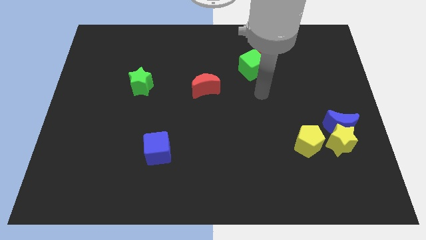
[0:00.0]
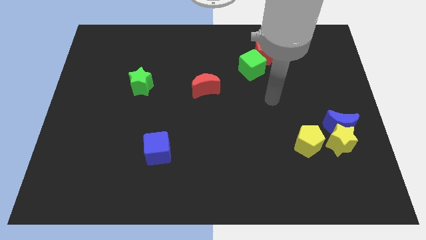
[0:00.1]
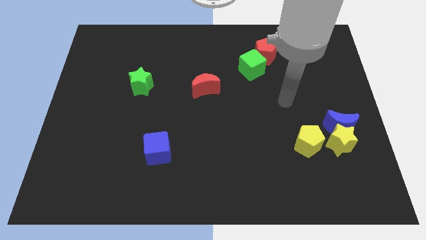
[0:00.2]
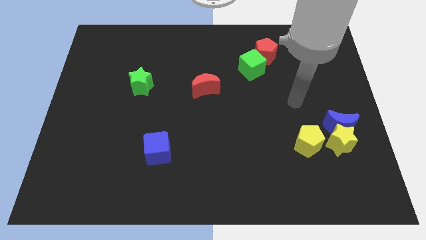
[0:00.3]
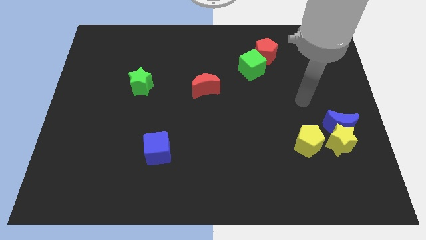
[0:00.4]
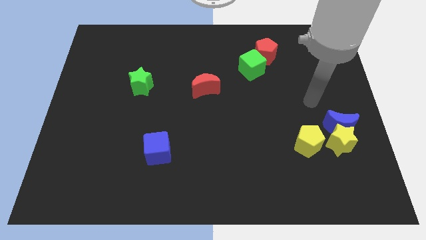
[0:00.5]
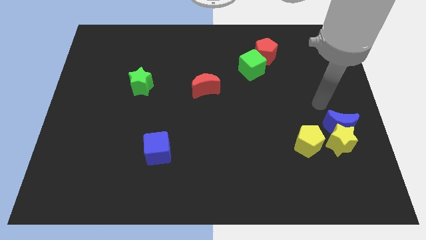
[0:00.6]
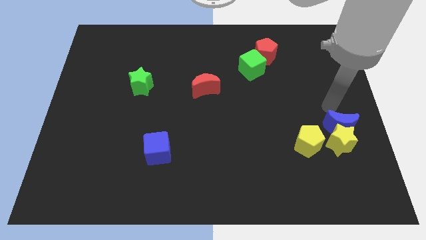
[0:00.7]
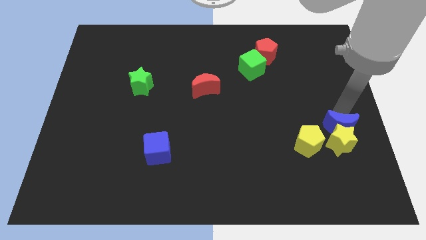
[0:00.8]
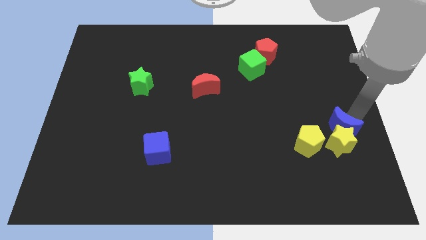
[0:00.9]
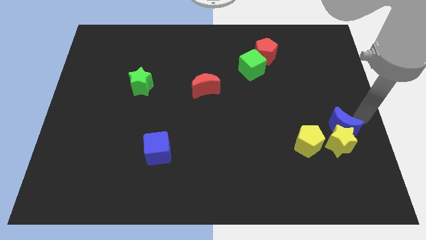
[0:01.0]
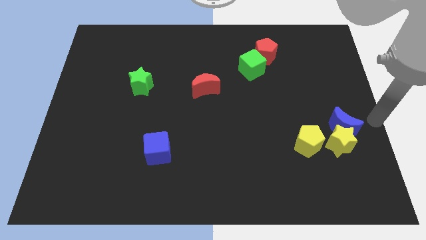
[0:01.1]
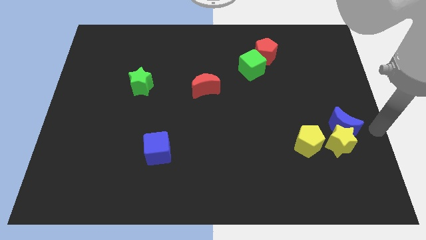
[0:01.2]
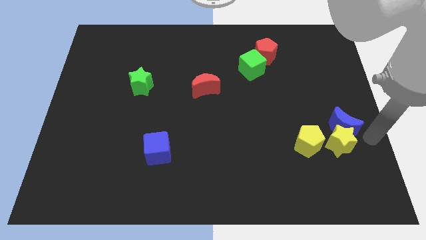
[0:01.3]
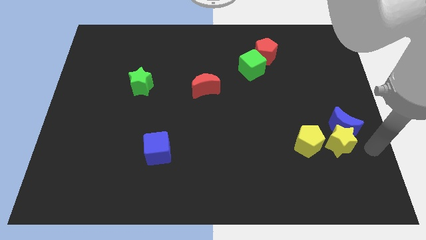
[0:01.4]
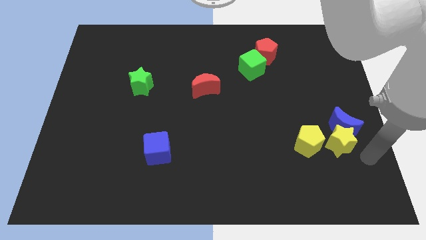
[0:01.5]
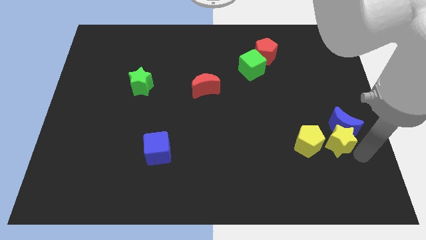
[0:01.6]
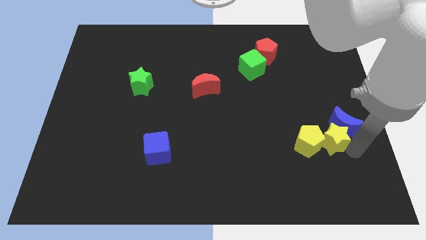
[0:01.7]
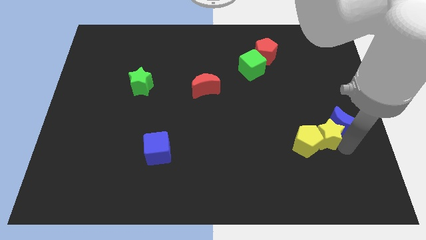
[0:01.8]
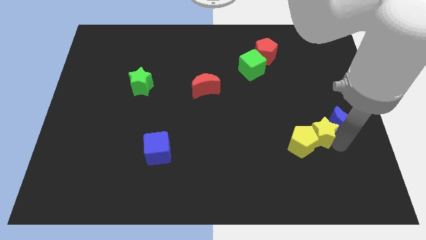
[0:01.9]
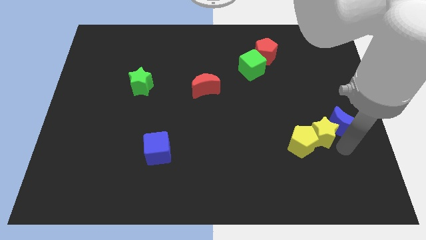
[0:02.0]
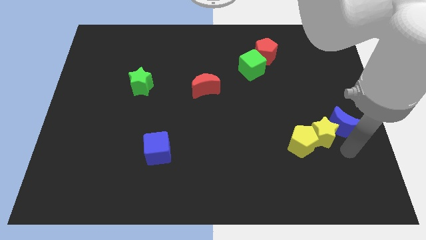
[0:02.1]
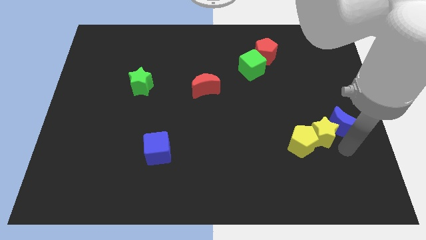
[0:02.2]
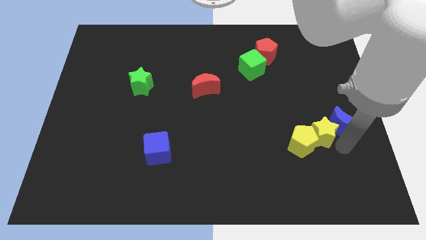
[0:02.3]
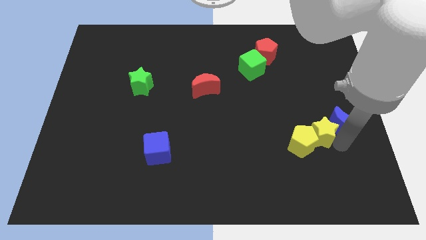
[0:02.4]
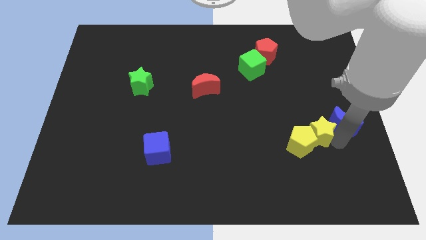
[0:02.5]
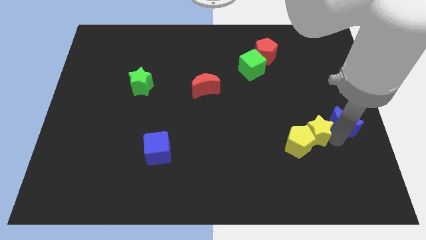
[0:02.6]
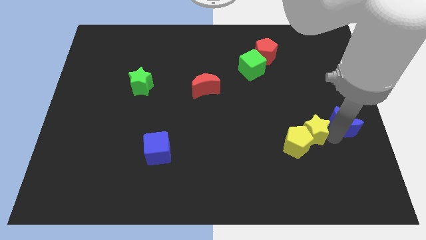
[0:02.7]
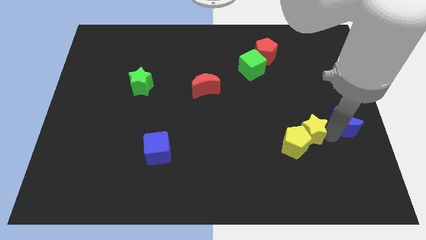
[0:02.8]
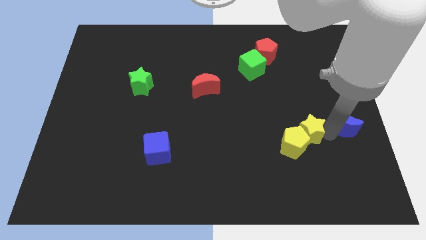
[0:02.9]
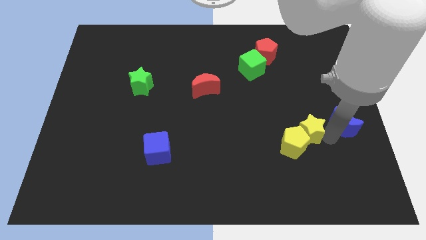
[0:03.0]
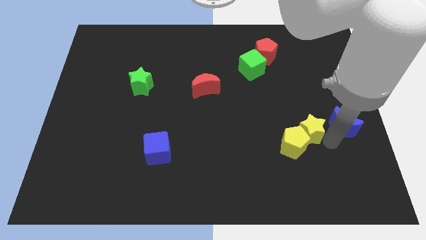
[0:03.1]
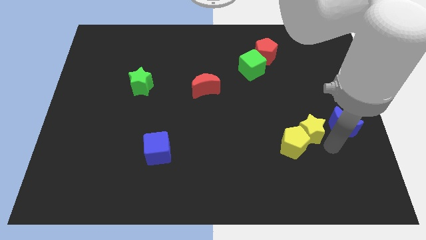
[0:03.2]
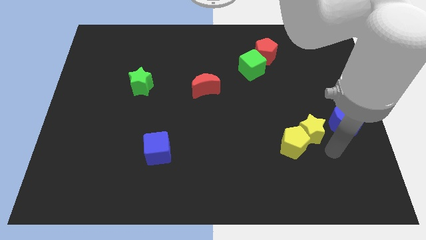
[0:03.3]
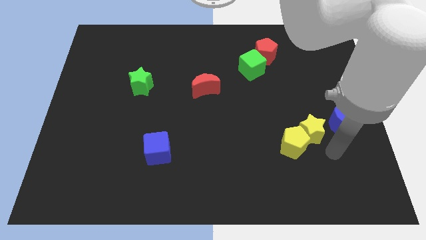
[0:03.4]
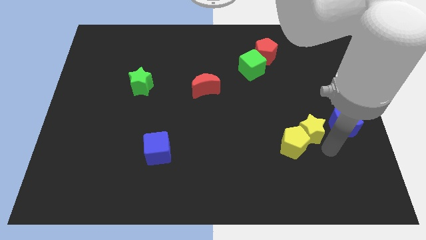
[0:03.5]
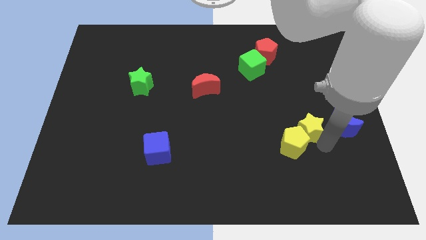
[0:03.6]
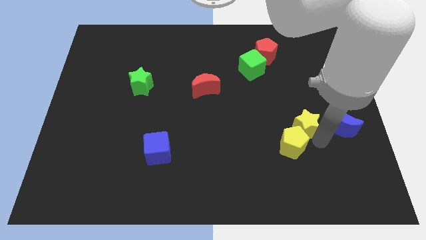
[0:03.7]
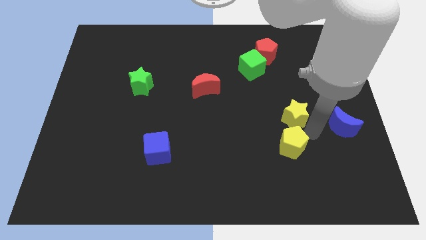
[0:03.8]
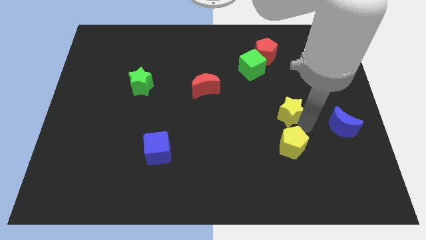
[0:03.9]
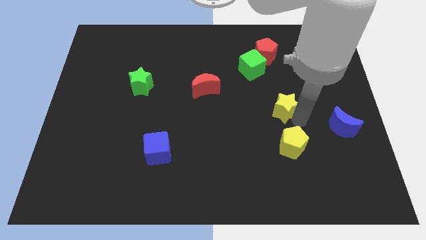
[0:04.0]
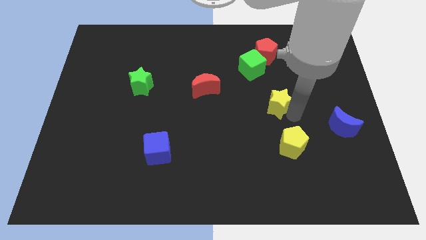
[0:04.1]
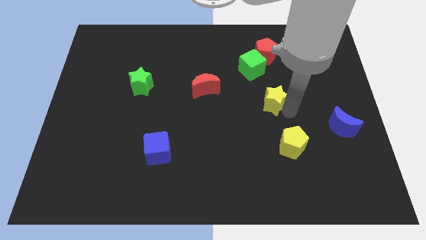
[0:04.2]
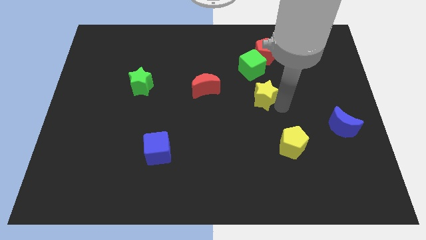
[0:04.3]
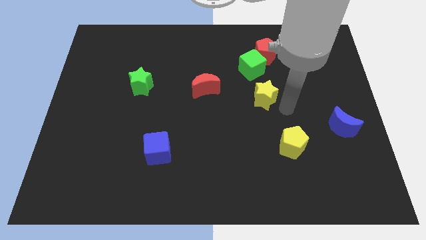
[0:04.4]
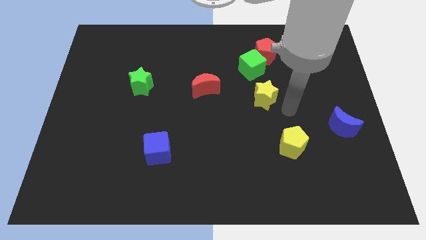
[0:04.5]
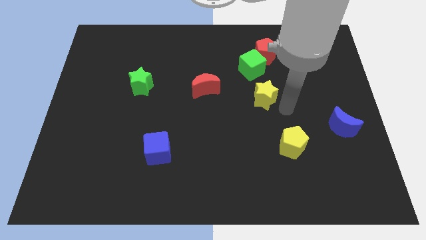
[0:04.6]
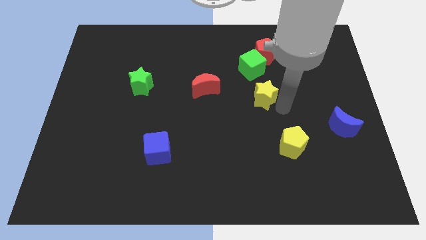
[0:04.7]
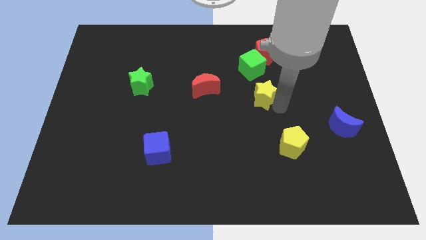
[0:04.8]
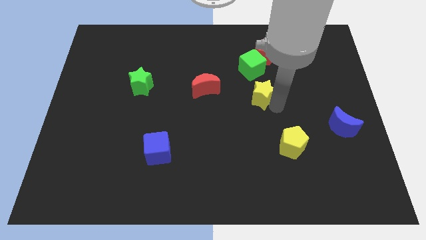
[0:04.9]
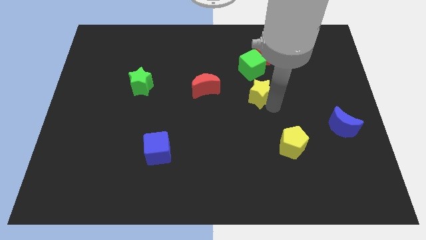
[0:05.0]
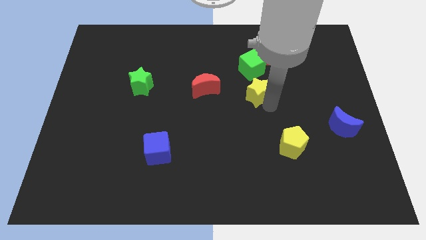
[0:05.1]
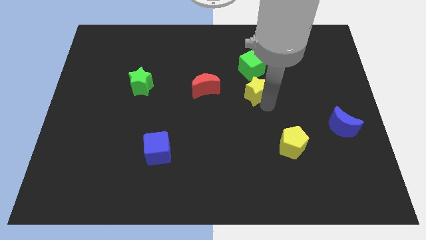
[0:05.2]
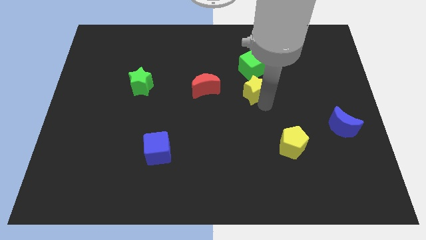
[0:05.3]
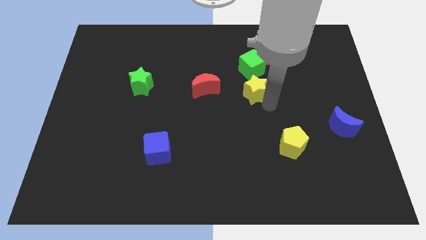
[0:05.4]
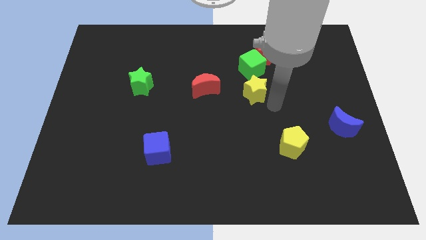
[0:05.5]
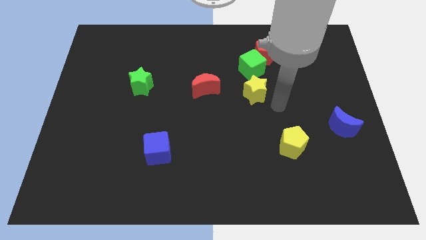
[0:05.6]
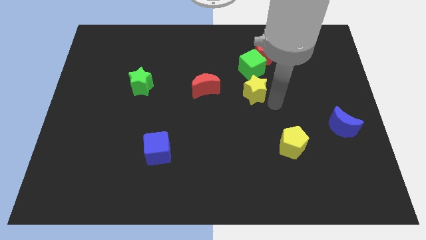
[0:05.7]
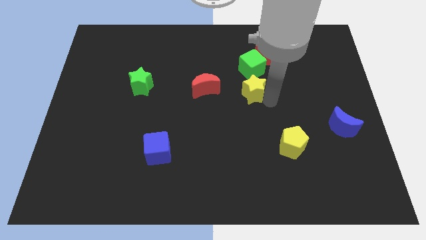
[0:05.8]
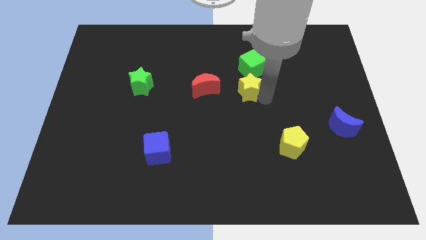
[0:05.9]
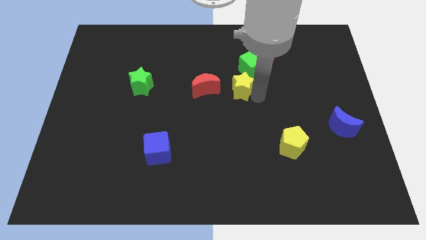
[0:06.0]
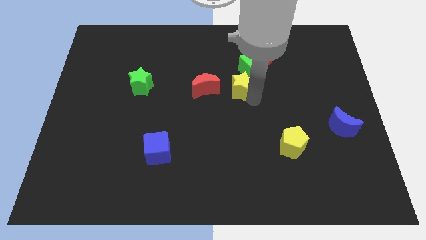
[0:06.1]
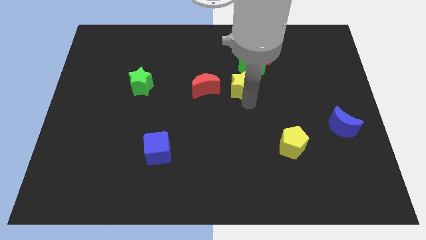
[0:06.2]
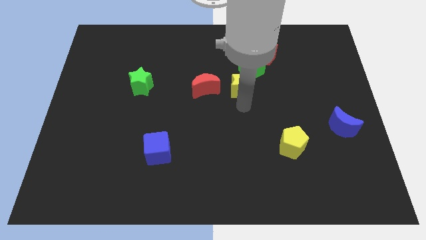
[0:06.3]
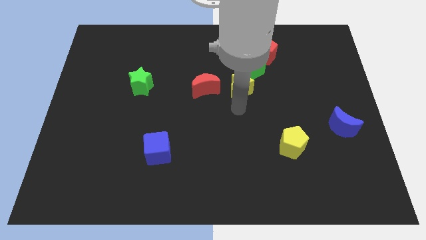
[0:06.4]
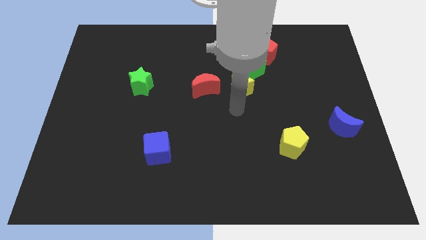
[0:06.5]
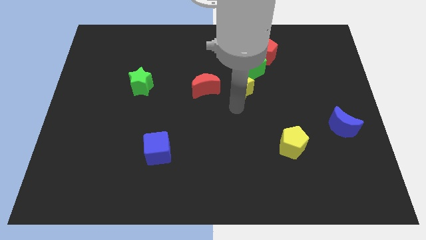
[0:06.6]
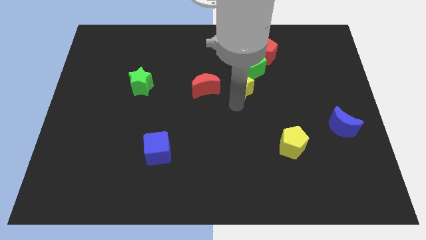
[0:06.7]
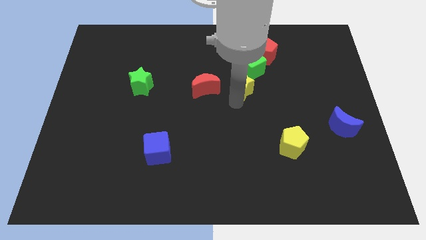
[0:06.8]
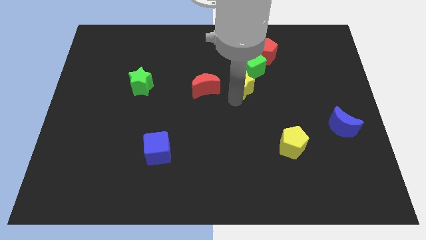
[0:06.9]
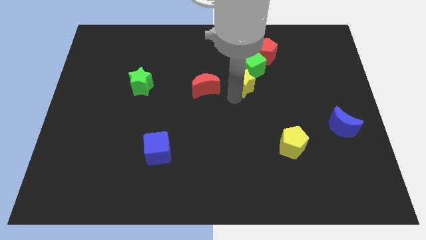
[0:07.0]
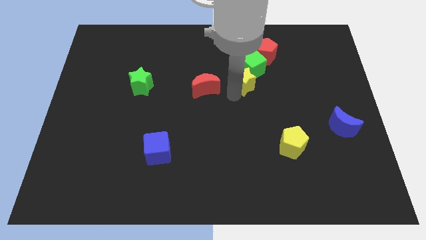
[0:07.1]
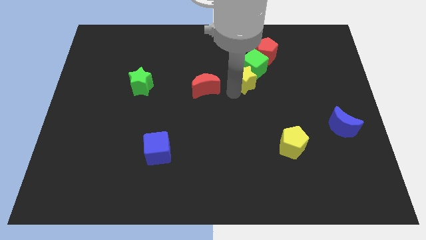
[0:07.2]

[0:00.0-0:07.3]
push the yellow star to the bottom left of the red pentagon
